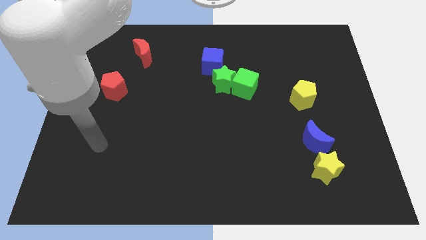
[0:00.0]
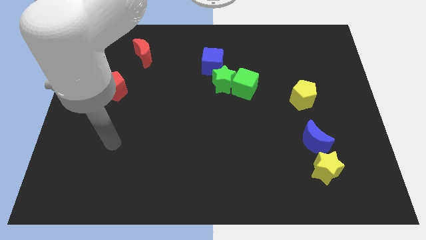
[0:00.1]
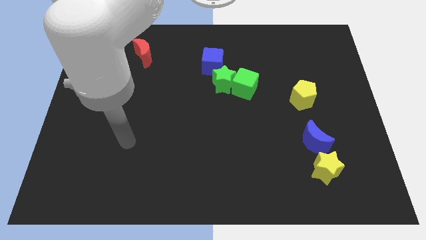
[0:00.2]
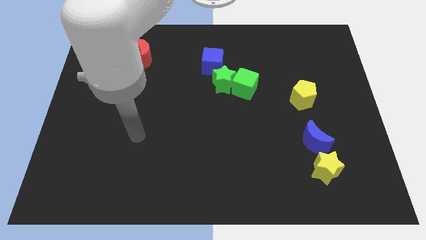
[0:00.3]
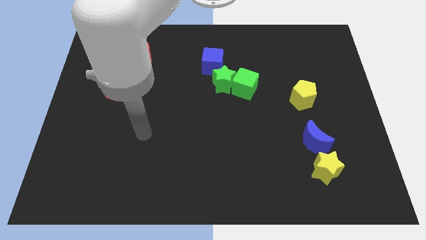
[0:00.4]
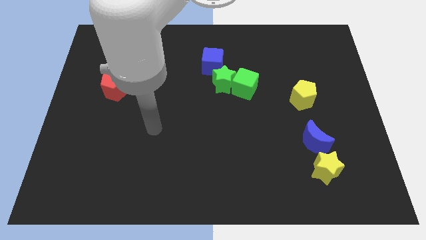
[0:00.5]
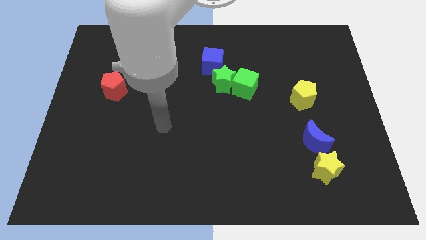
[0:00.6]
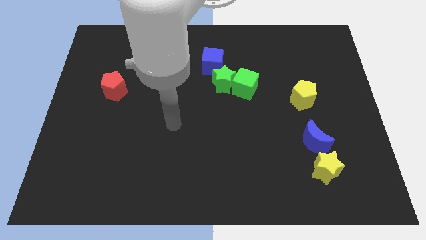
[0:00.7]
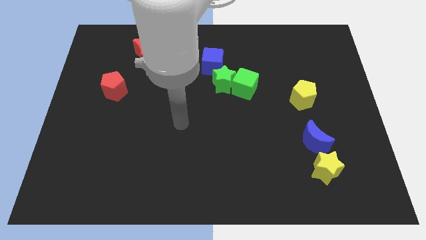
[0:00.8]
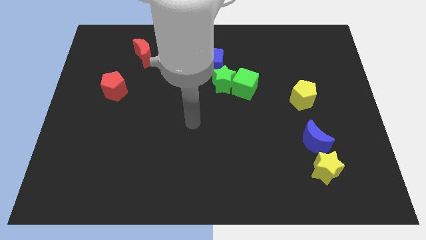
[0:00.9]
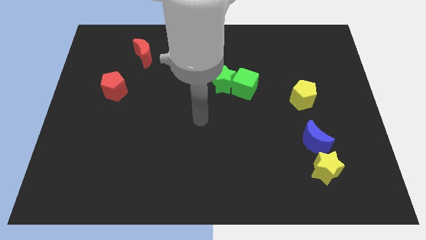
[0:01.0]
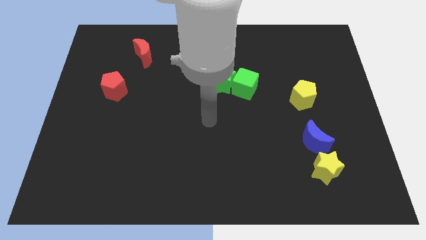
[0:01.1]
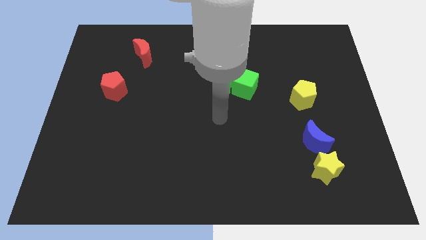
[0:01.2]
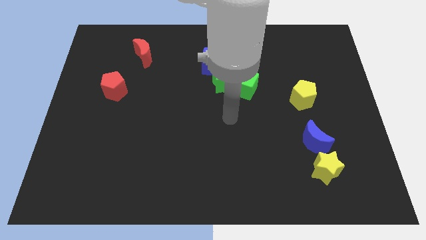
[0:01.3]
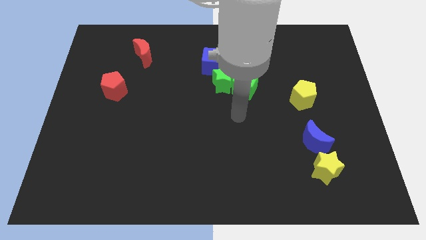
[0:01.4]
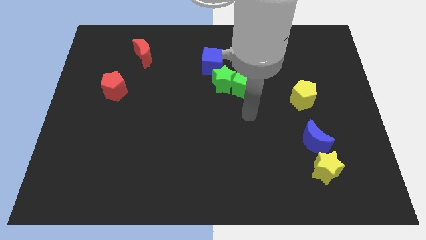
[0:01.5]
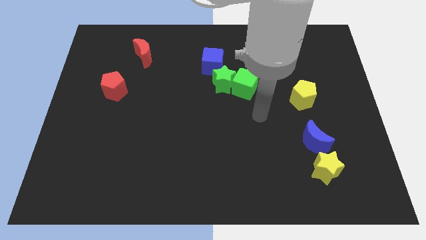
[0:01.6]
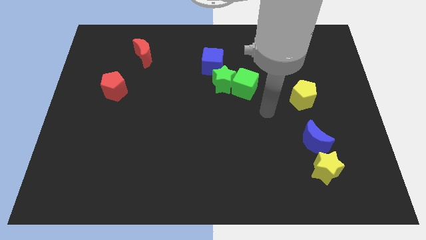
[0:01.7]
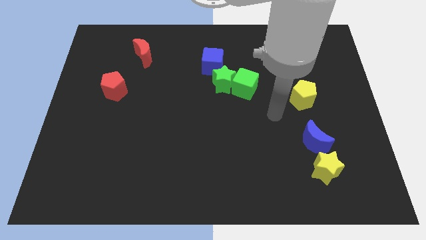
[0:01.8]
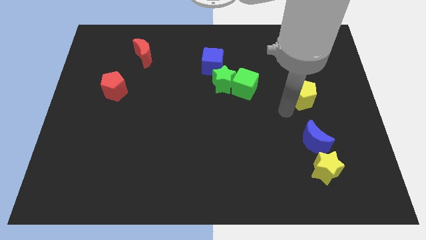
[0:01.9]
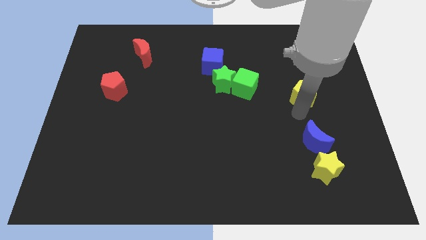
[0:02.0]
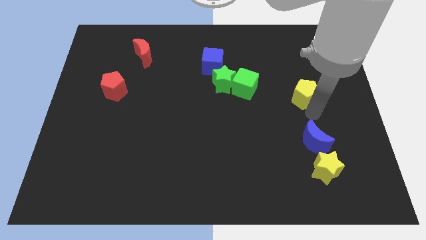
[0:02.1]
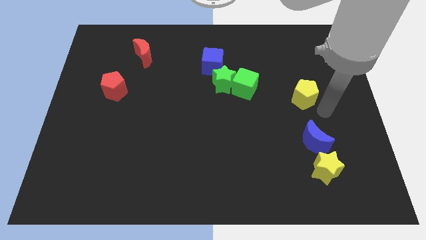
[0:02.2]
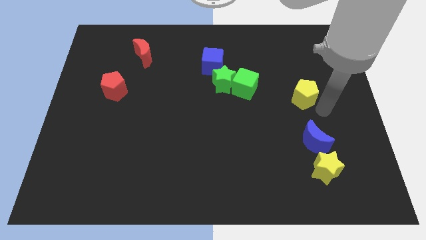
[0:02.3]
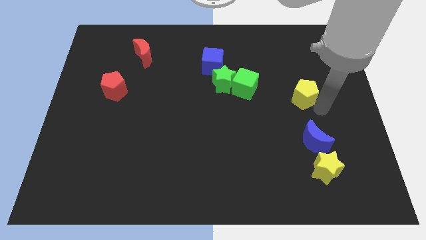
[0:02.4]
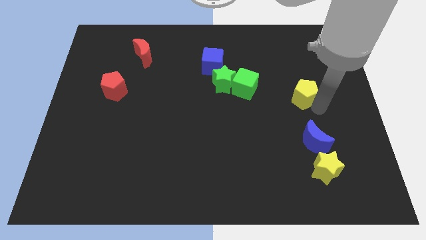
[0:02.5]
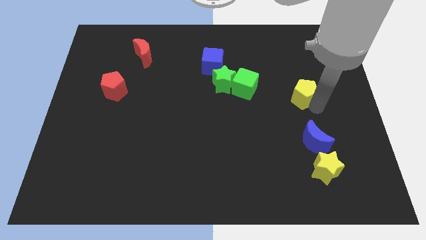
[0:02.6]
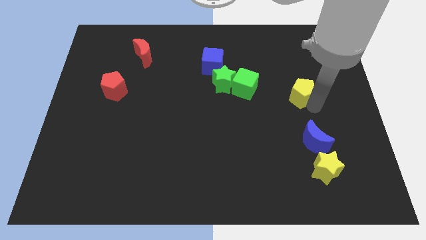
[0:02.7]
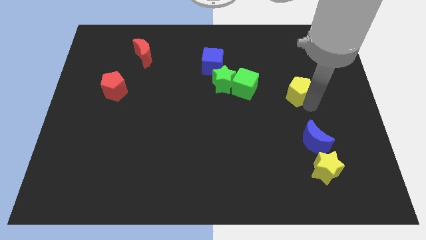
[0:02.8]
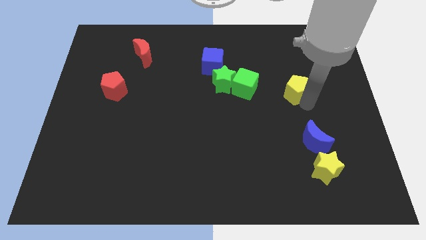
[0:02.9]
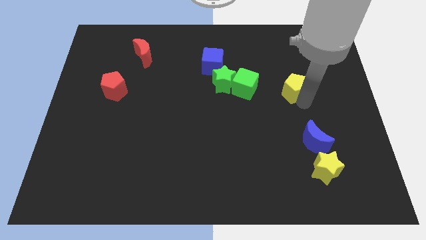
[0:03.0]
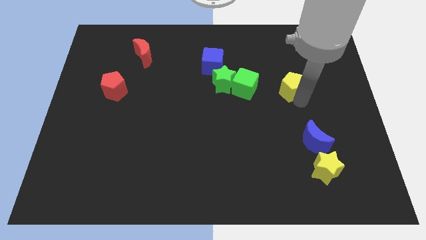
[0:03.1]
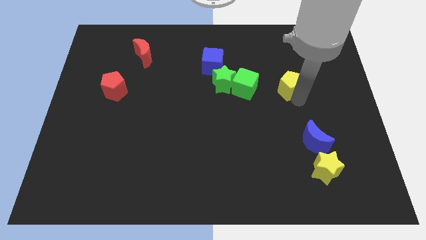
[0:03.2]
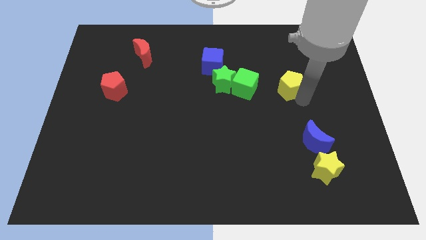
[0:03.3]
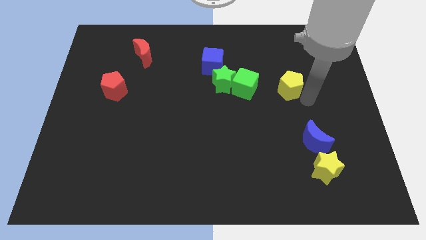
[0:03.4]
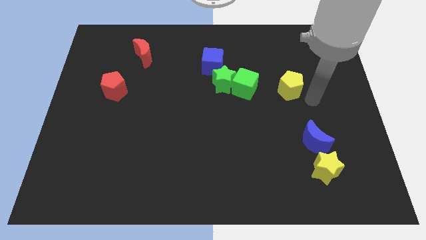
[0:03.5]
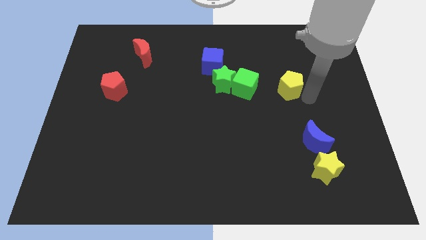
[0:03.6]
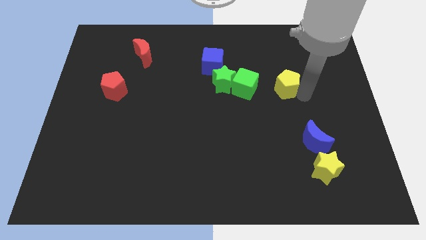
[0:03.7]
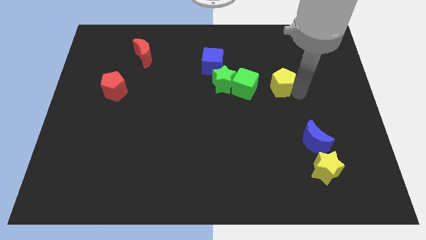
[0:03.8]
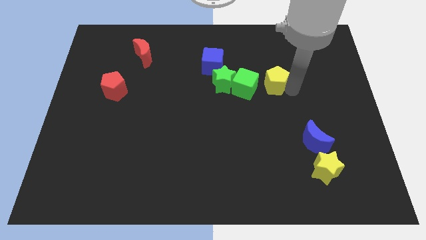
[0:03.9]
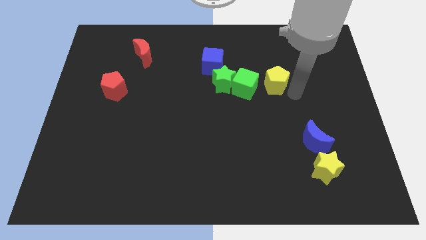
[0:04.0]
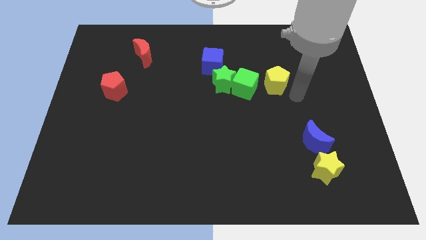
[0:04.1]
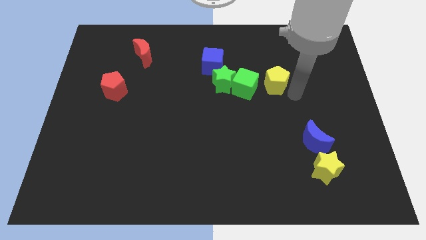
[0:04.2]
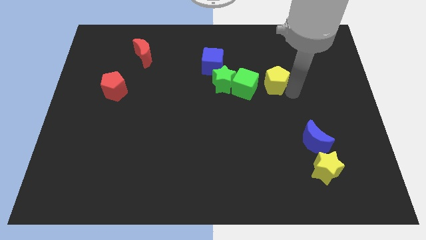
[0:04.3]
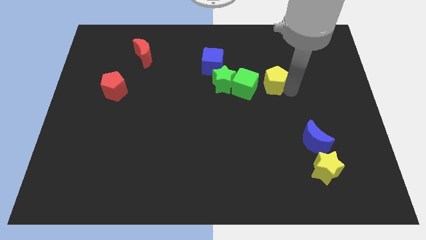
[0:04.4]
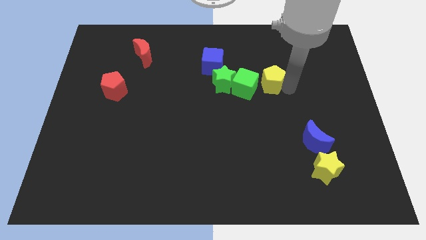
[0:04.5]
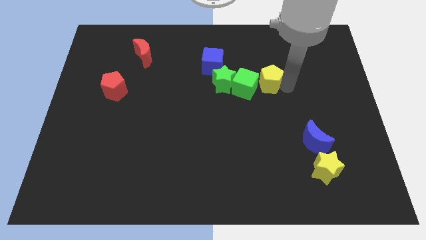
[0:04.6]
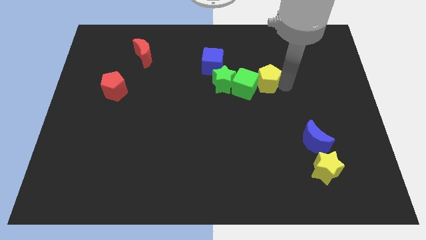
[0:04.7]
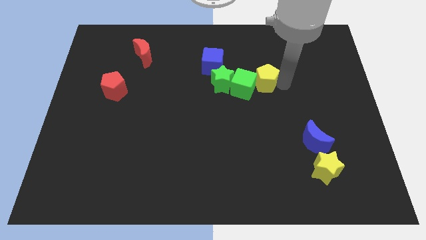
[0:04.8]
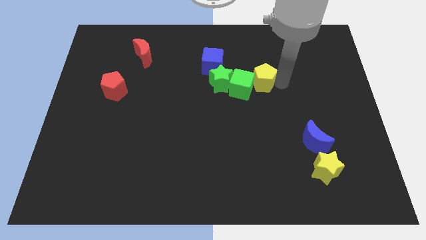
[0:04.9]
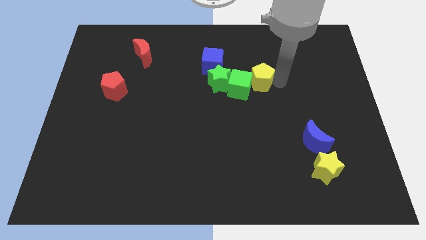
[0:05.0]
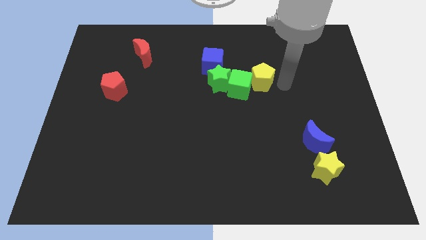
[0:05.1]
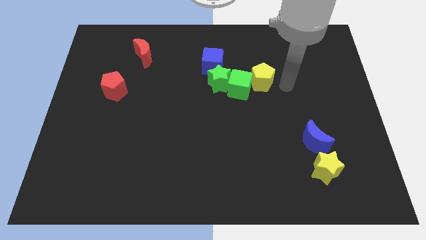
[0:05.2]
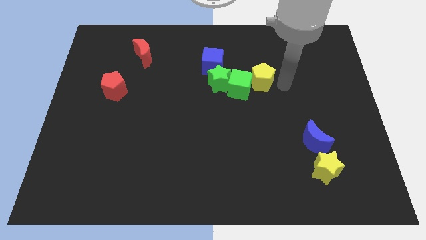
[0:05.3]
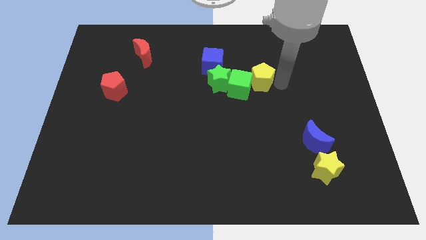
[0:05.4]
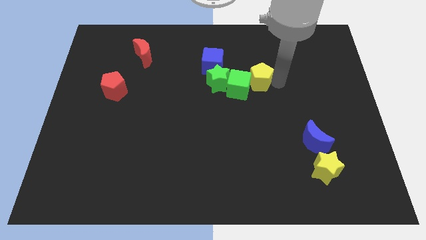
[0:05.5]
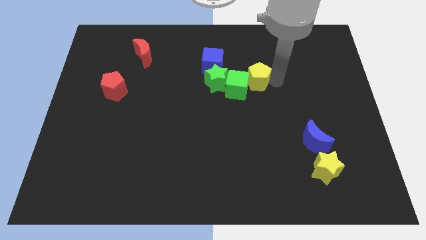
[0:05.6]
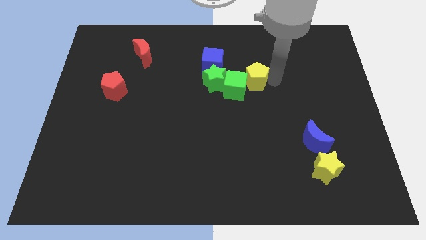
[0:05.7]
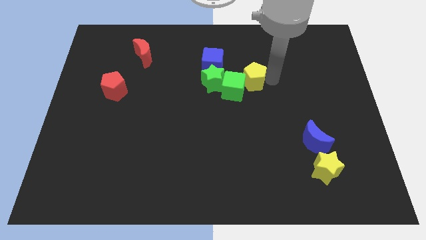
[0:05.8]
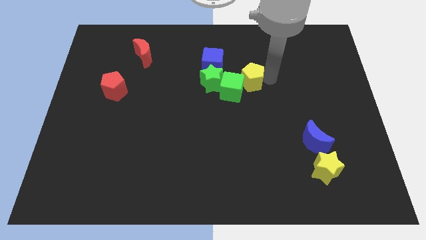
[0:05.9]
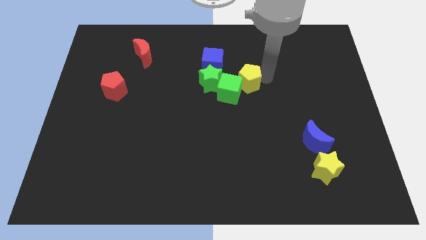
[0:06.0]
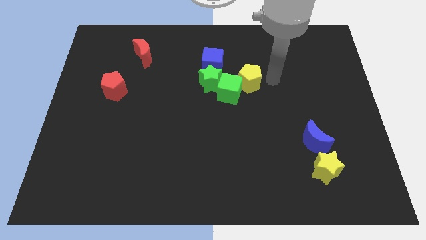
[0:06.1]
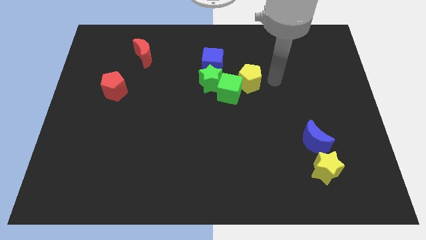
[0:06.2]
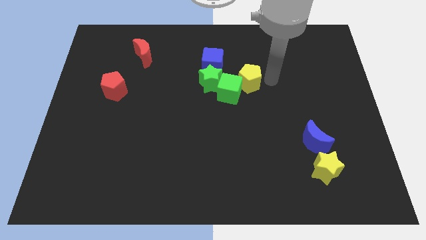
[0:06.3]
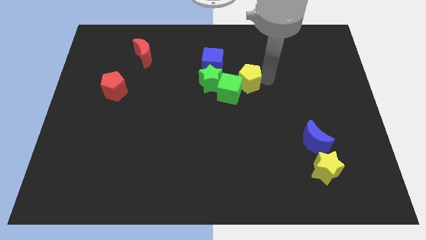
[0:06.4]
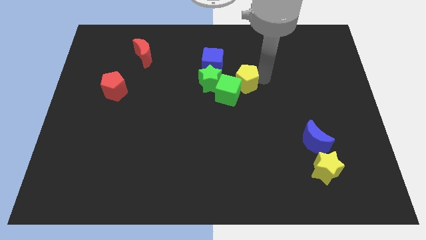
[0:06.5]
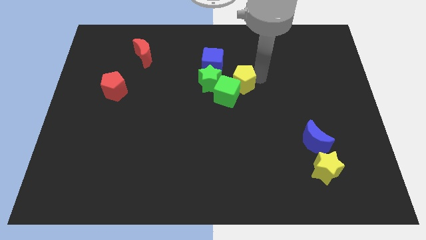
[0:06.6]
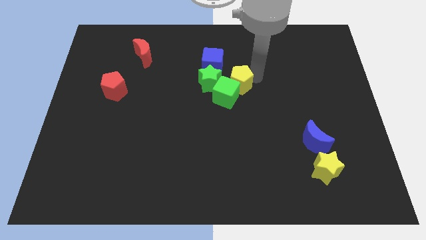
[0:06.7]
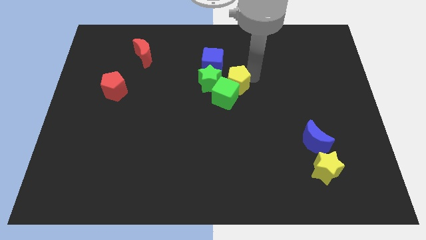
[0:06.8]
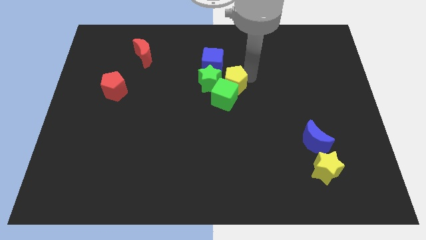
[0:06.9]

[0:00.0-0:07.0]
move the yellow pentagon next to the green star

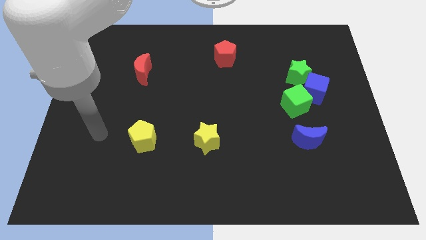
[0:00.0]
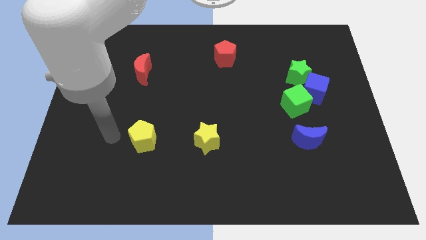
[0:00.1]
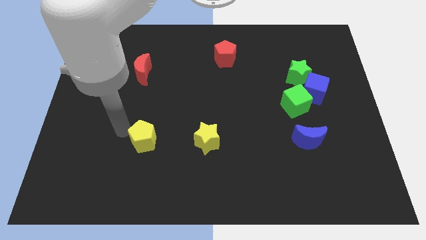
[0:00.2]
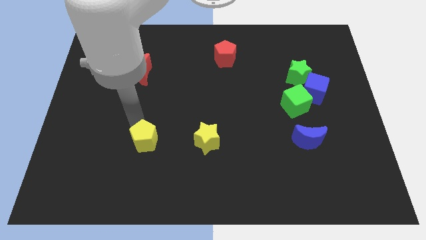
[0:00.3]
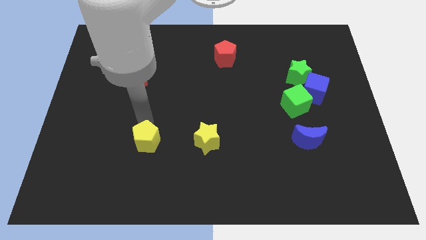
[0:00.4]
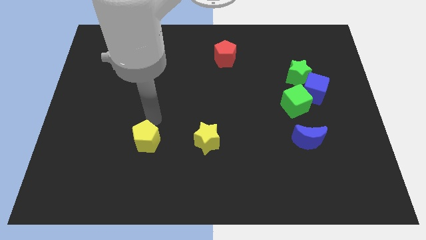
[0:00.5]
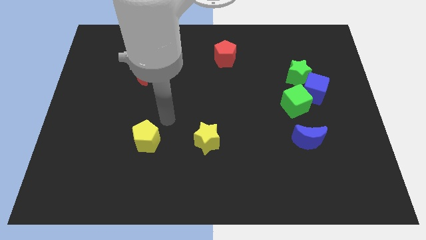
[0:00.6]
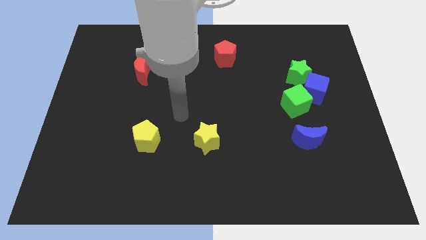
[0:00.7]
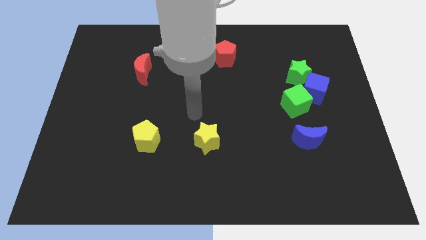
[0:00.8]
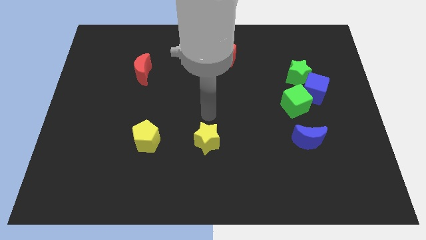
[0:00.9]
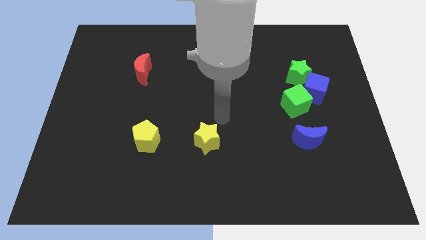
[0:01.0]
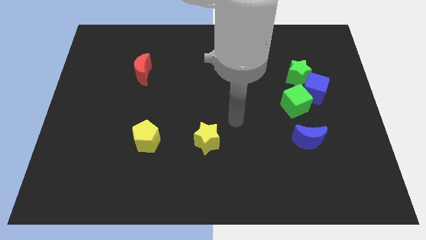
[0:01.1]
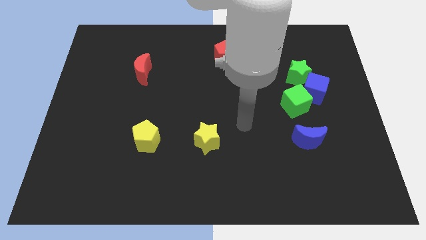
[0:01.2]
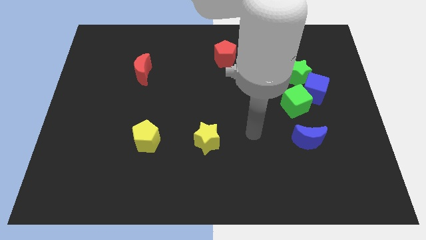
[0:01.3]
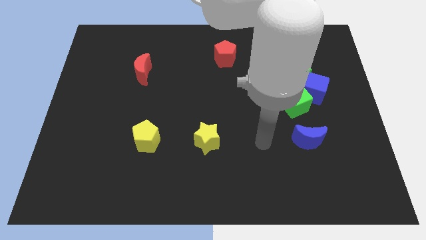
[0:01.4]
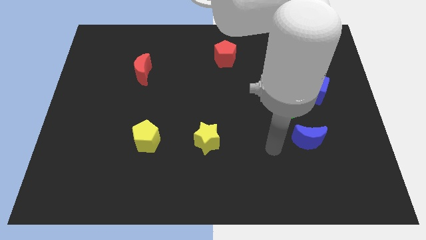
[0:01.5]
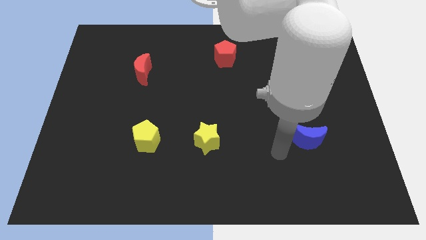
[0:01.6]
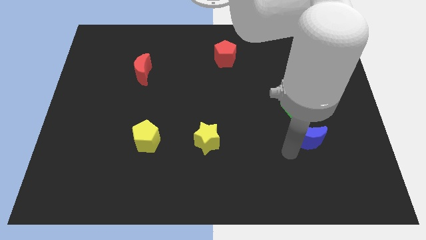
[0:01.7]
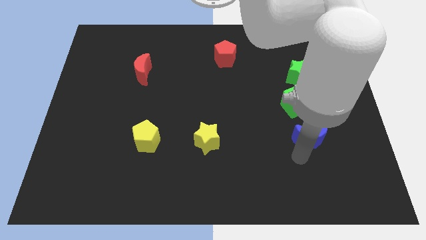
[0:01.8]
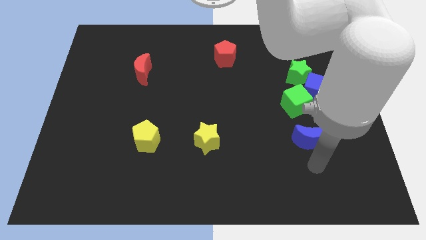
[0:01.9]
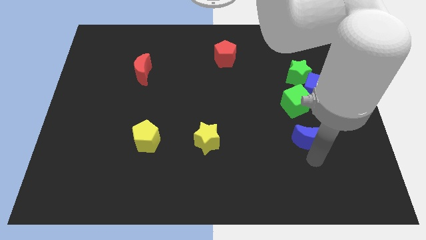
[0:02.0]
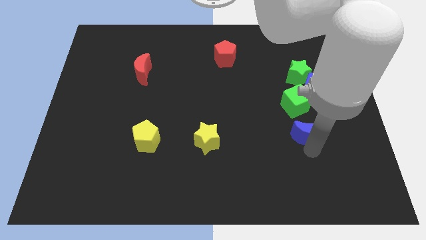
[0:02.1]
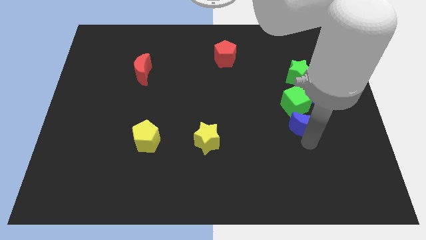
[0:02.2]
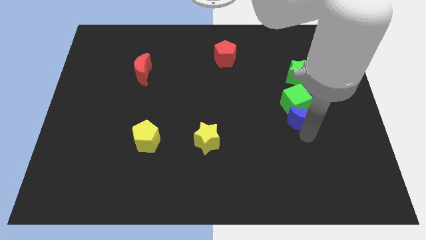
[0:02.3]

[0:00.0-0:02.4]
move the blue moon towards the green cube
